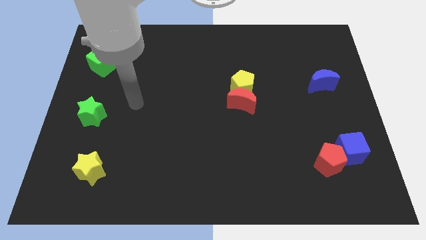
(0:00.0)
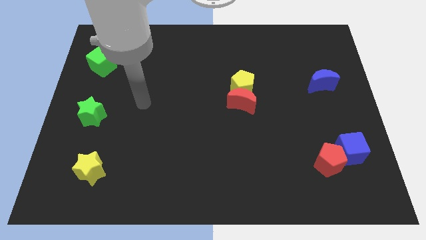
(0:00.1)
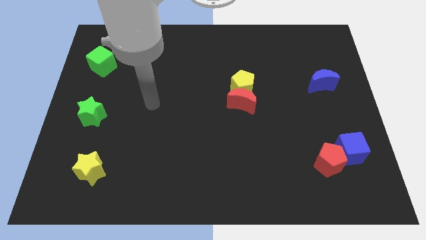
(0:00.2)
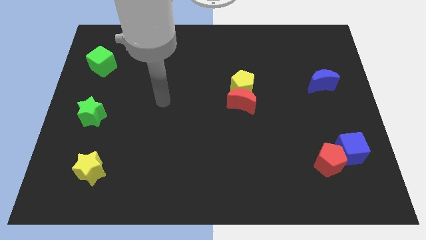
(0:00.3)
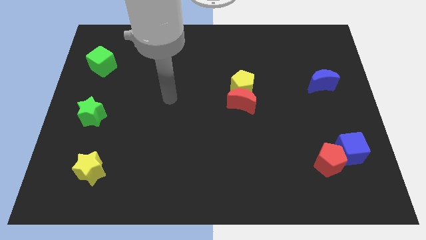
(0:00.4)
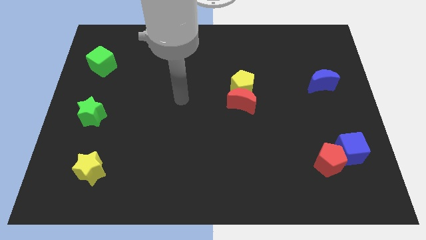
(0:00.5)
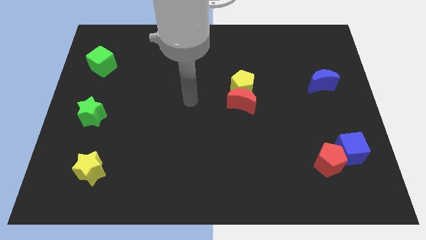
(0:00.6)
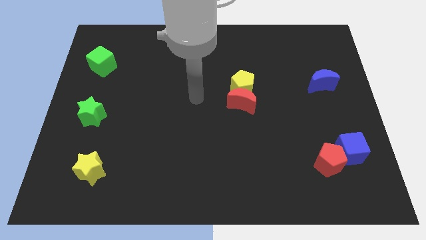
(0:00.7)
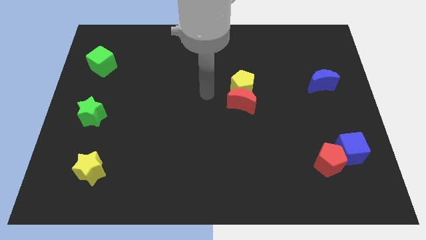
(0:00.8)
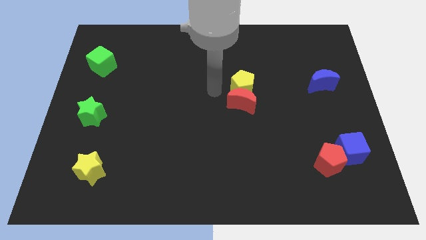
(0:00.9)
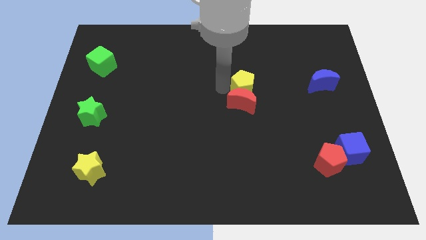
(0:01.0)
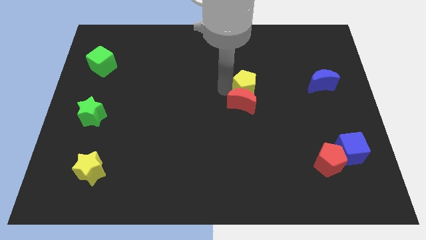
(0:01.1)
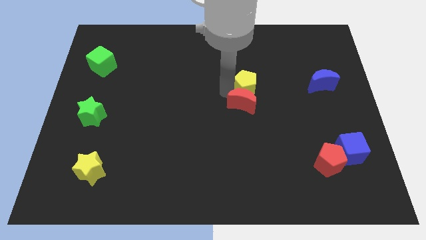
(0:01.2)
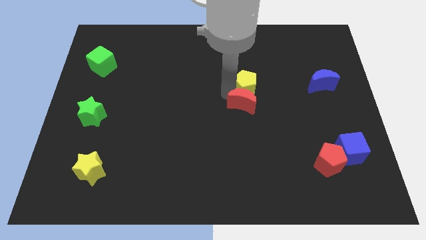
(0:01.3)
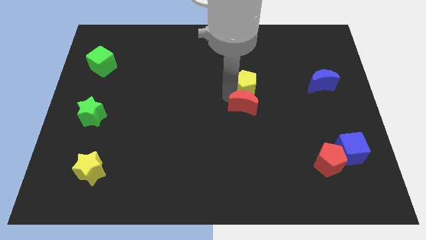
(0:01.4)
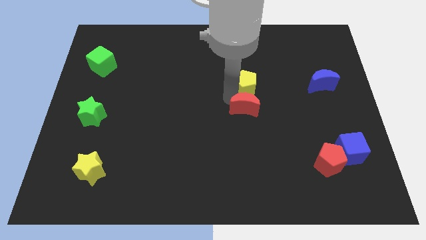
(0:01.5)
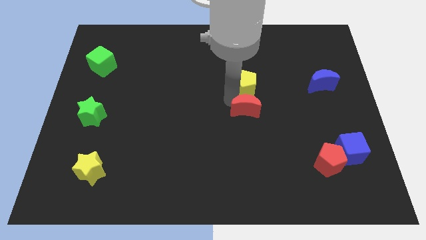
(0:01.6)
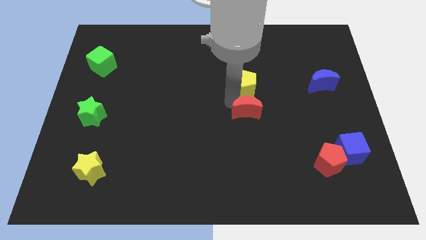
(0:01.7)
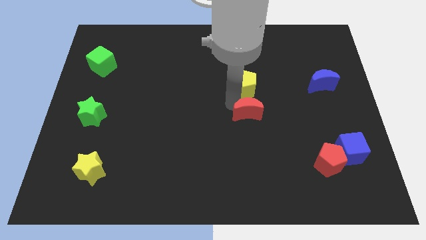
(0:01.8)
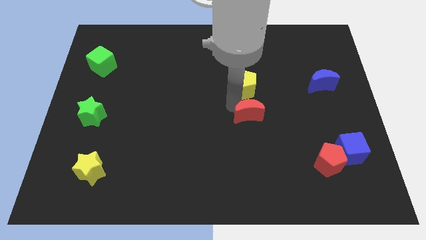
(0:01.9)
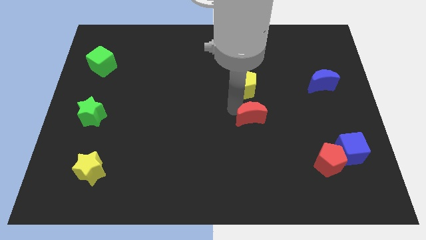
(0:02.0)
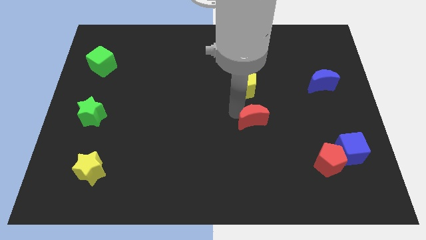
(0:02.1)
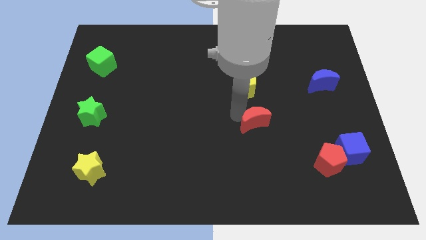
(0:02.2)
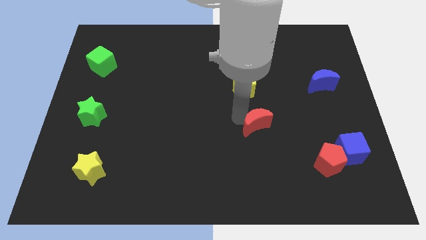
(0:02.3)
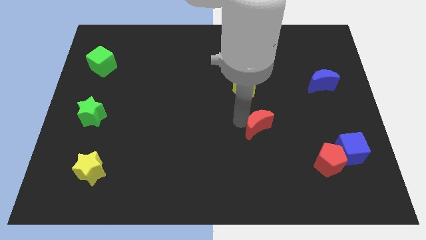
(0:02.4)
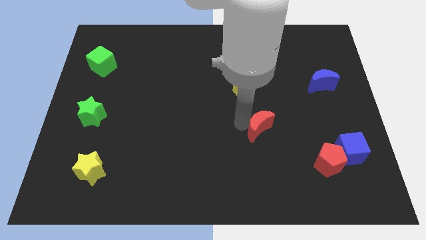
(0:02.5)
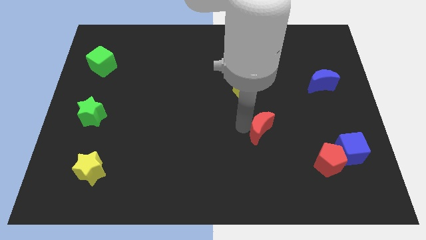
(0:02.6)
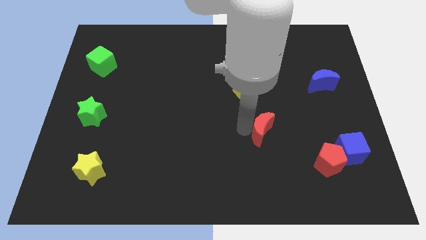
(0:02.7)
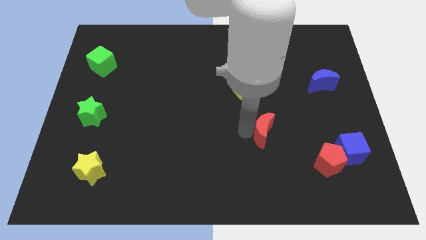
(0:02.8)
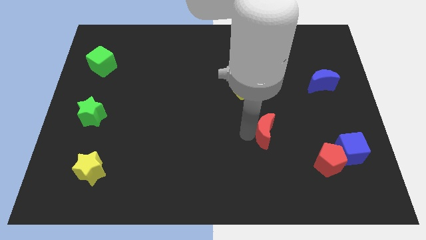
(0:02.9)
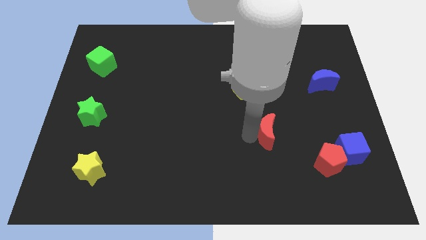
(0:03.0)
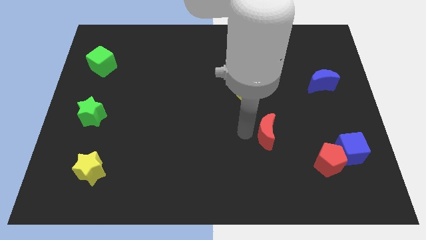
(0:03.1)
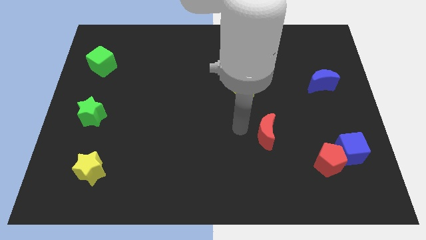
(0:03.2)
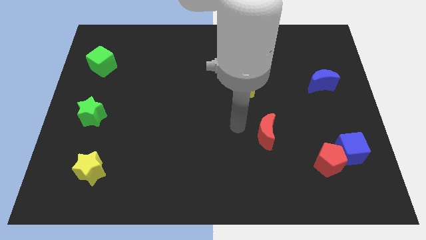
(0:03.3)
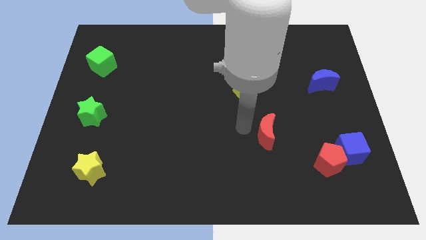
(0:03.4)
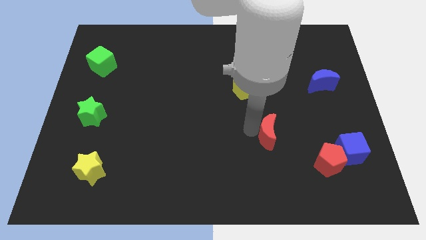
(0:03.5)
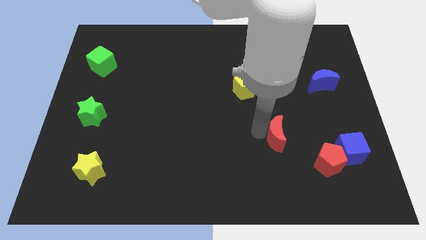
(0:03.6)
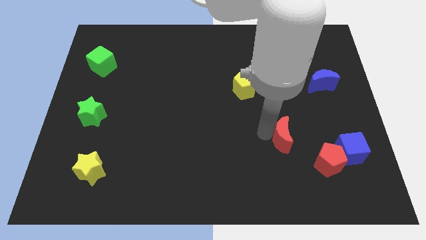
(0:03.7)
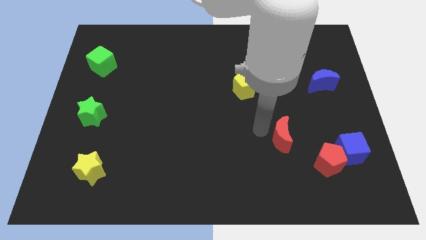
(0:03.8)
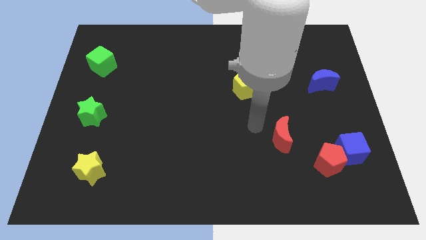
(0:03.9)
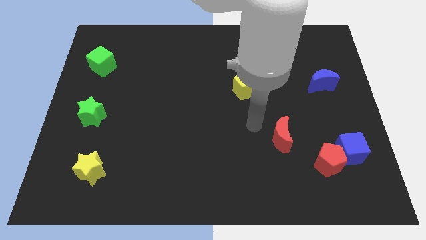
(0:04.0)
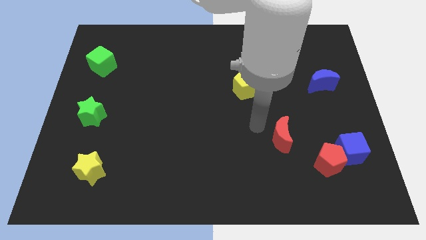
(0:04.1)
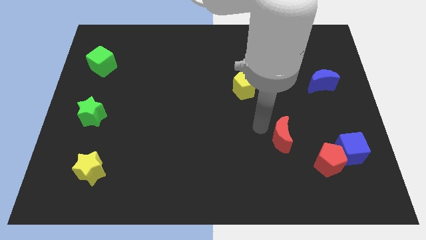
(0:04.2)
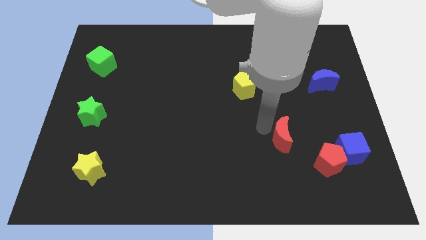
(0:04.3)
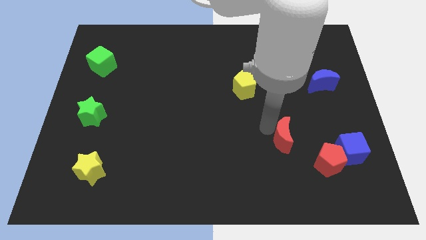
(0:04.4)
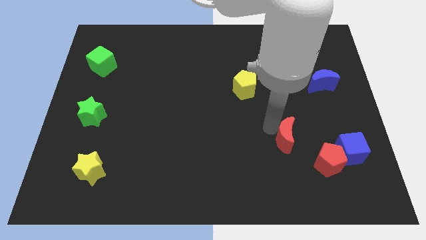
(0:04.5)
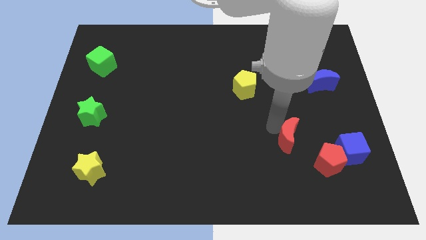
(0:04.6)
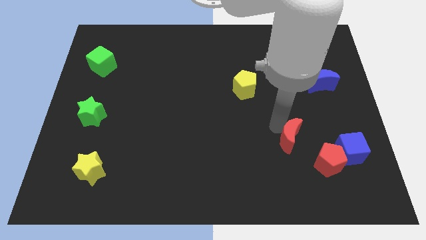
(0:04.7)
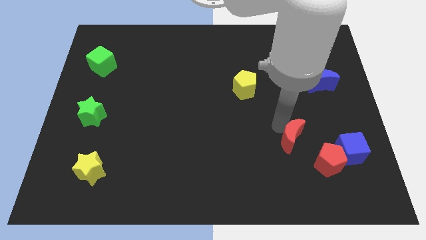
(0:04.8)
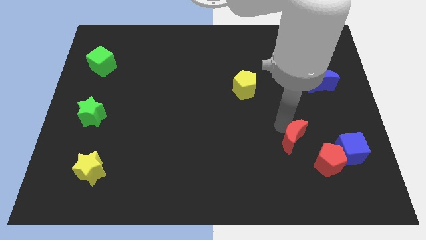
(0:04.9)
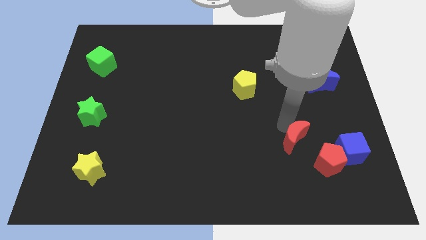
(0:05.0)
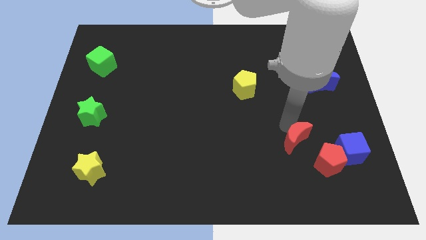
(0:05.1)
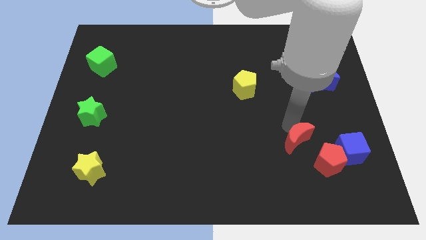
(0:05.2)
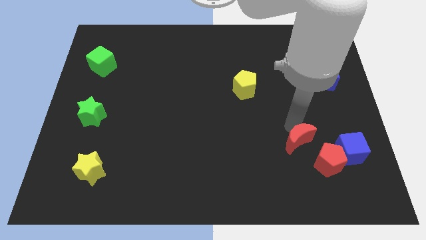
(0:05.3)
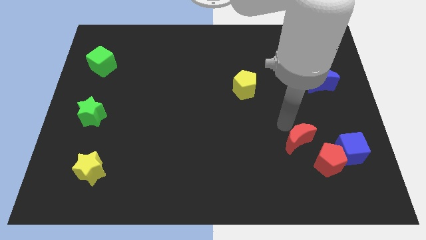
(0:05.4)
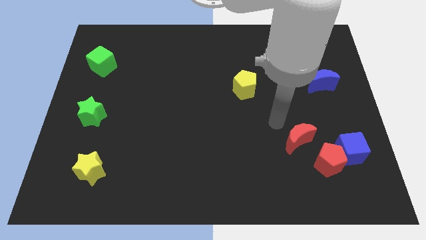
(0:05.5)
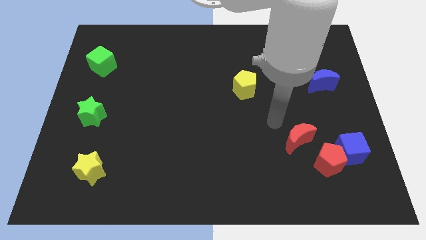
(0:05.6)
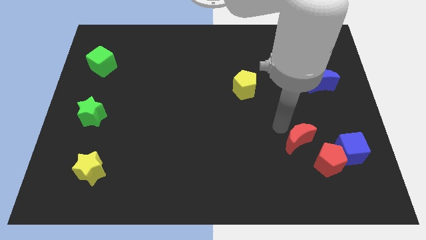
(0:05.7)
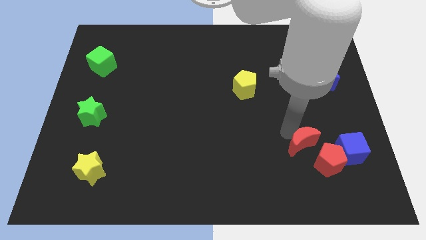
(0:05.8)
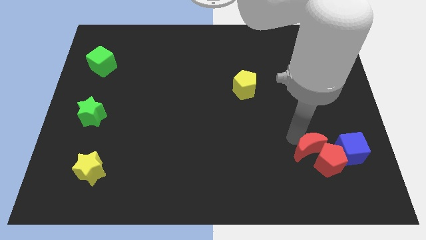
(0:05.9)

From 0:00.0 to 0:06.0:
put the red moon next to the red pentagon

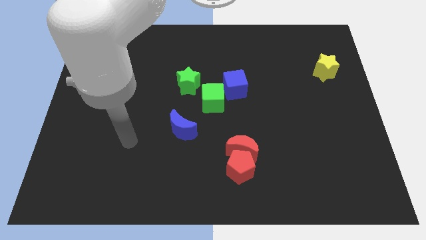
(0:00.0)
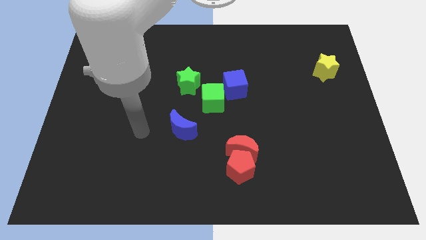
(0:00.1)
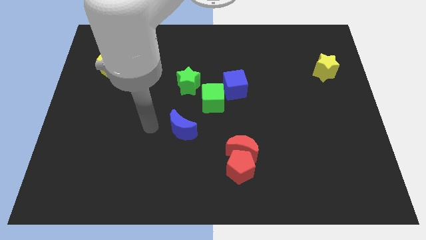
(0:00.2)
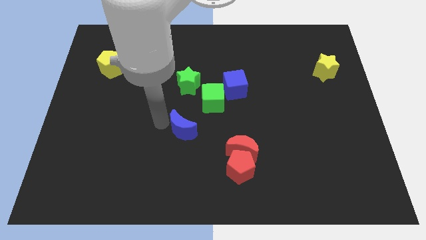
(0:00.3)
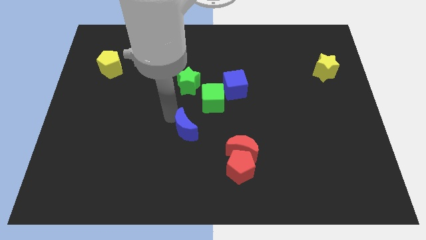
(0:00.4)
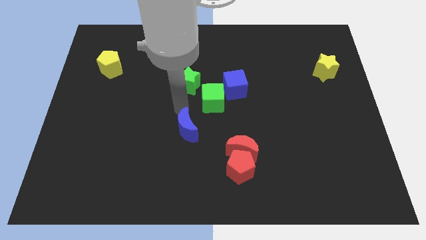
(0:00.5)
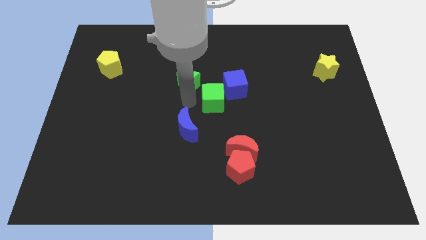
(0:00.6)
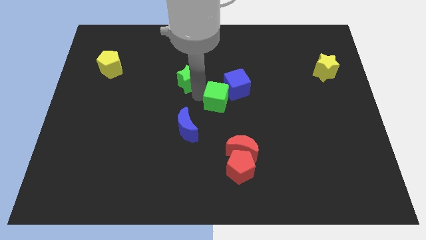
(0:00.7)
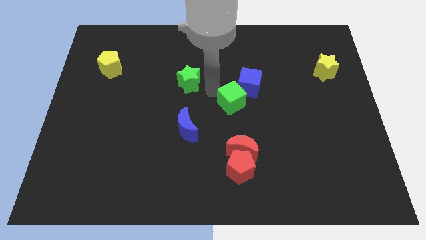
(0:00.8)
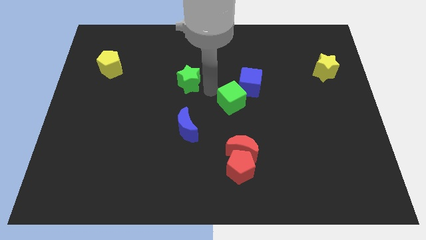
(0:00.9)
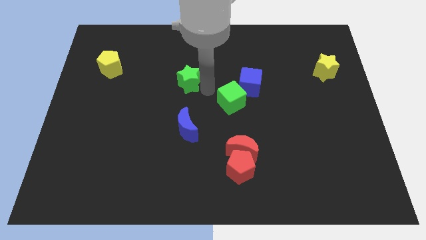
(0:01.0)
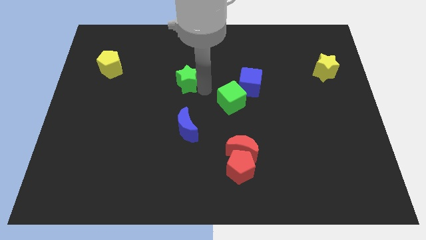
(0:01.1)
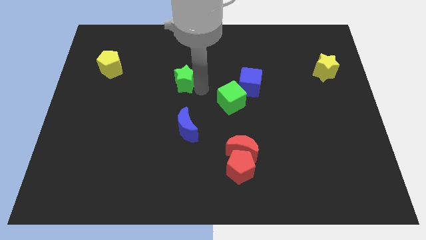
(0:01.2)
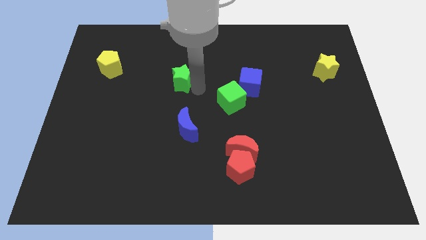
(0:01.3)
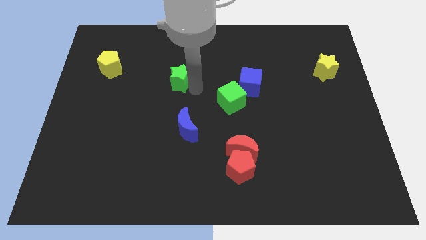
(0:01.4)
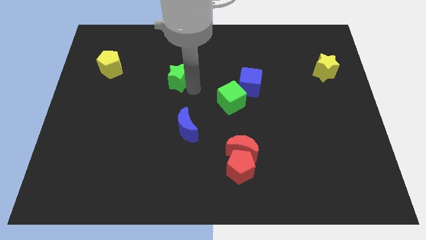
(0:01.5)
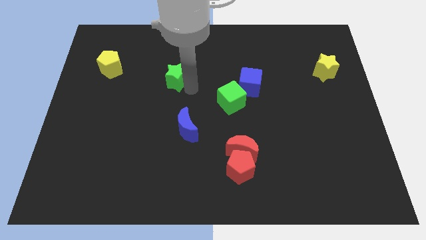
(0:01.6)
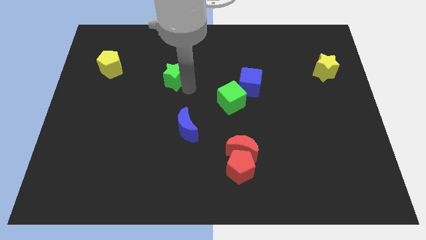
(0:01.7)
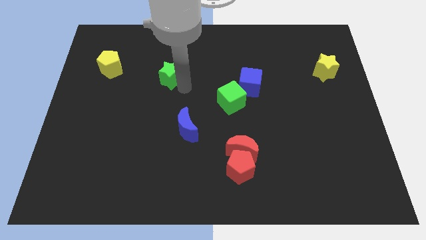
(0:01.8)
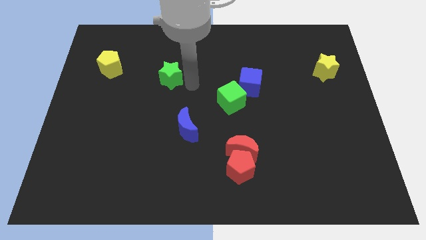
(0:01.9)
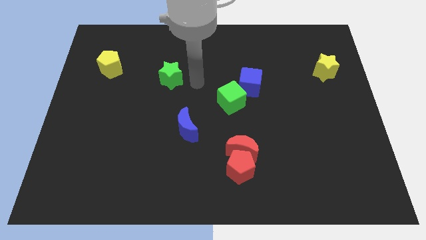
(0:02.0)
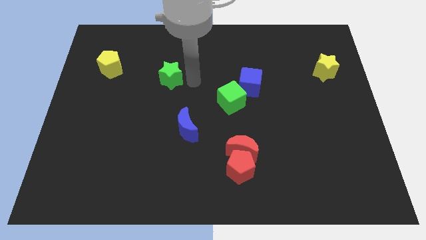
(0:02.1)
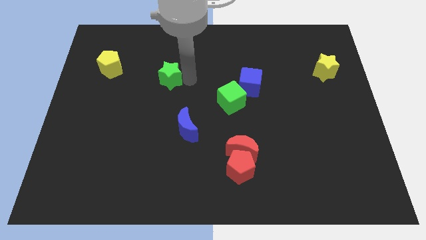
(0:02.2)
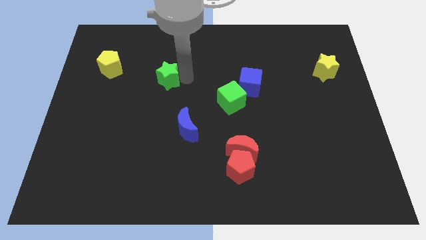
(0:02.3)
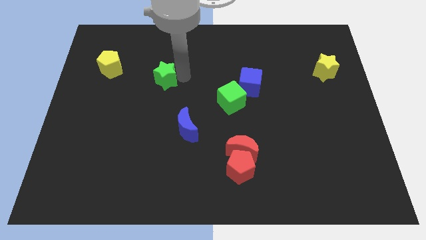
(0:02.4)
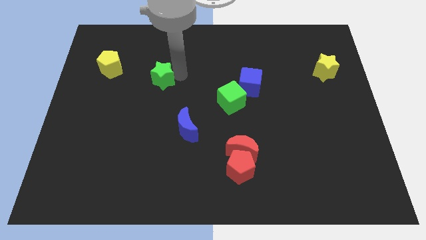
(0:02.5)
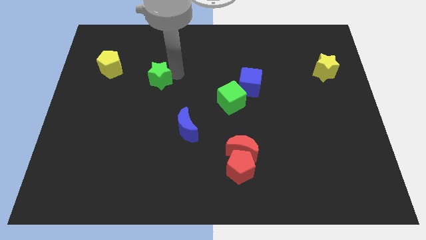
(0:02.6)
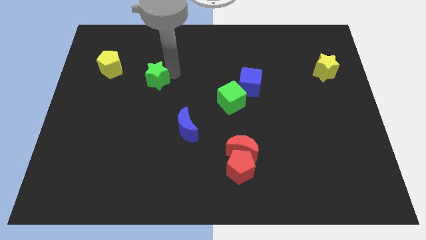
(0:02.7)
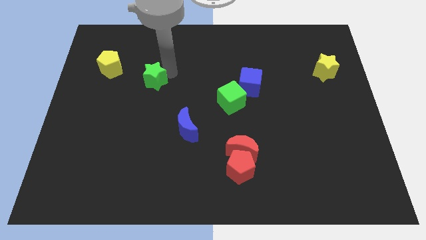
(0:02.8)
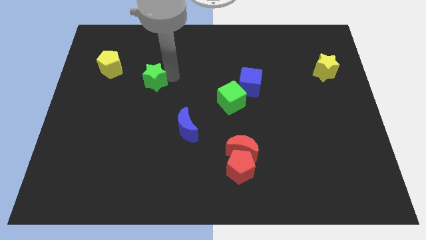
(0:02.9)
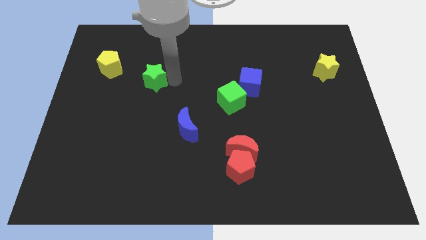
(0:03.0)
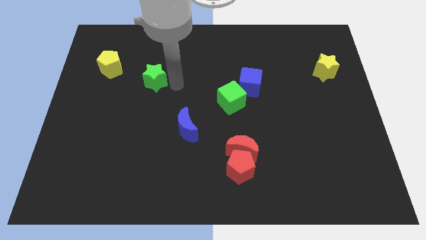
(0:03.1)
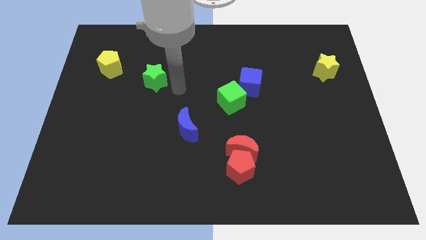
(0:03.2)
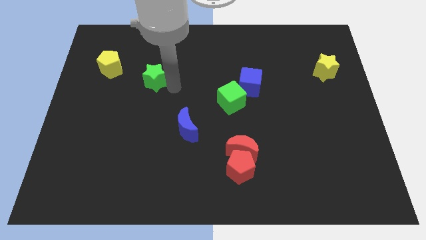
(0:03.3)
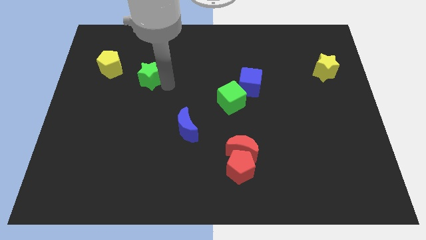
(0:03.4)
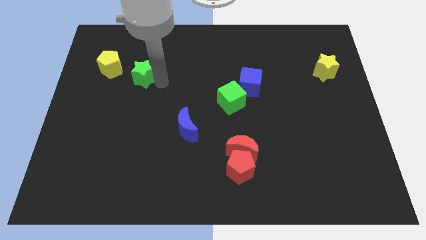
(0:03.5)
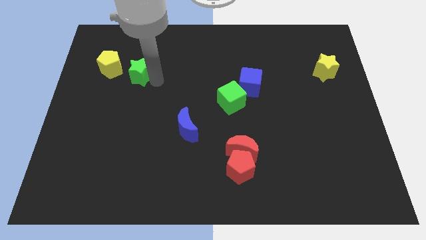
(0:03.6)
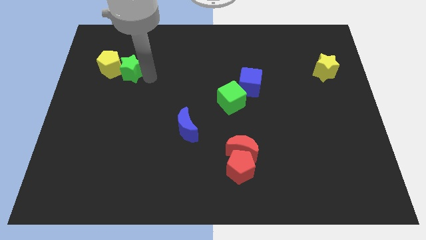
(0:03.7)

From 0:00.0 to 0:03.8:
push the green star close to the yellow pentagon
